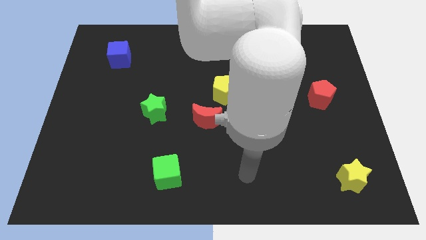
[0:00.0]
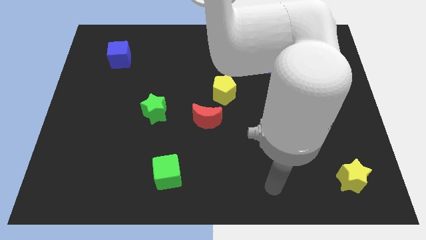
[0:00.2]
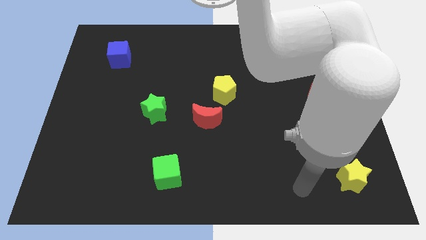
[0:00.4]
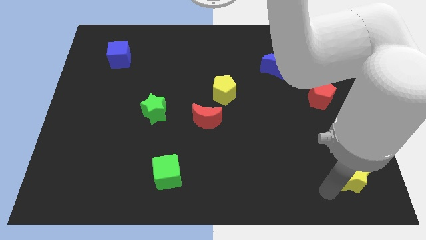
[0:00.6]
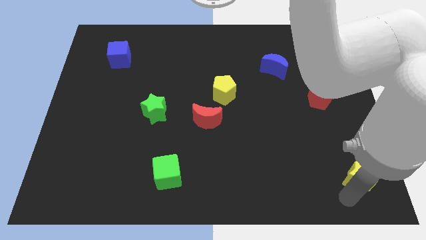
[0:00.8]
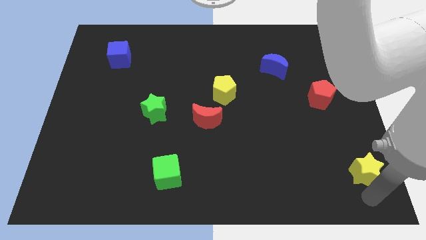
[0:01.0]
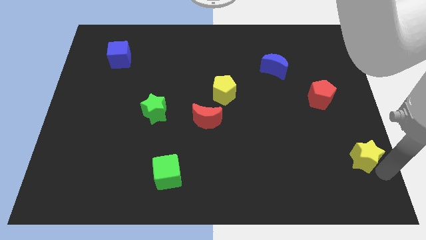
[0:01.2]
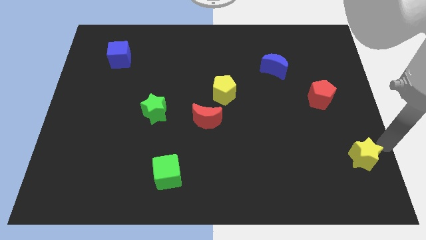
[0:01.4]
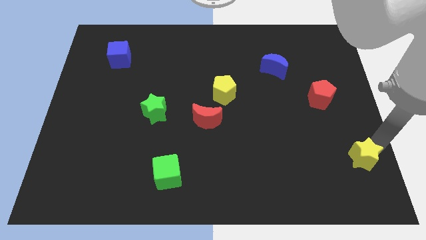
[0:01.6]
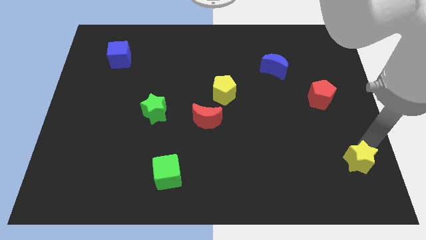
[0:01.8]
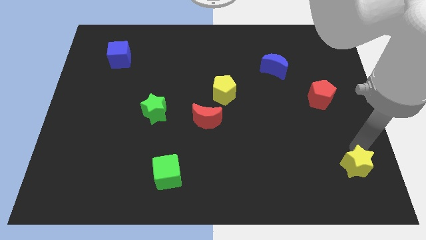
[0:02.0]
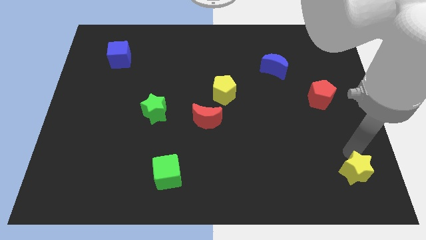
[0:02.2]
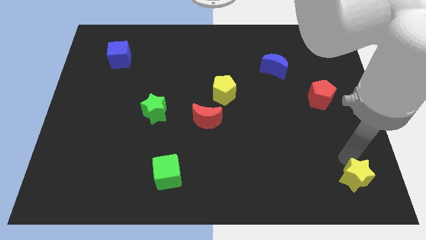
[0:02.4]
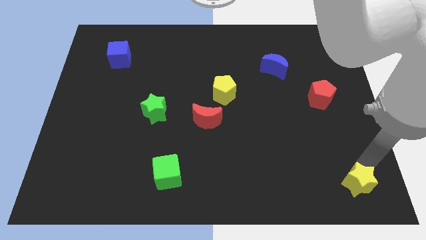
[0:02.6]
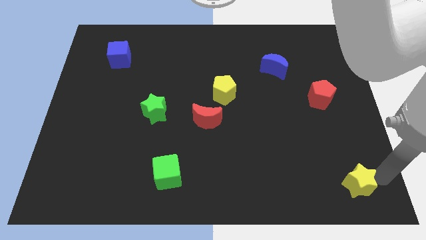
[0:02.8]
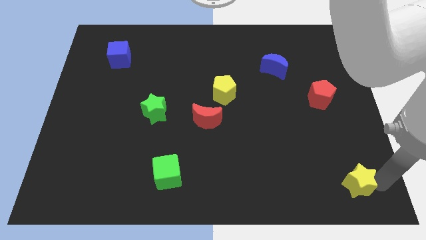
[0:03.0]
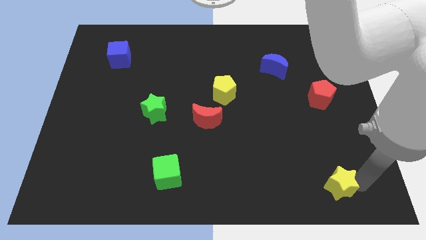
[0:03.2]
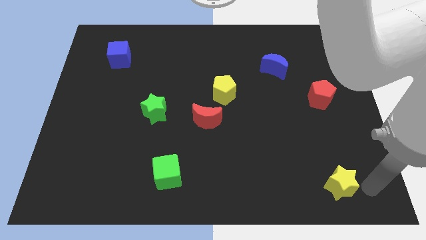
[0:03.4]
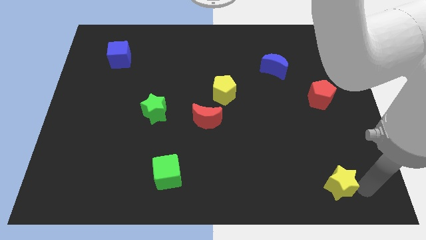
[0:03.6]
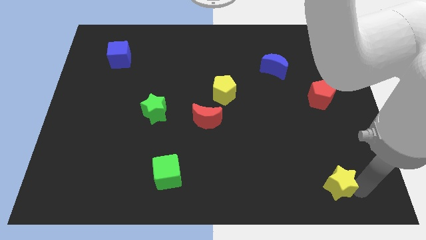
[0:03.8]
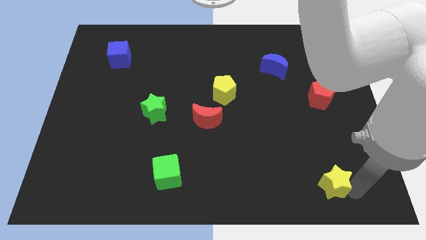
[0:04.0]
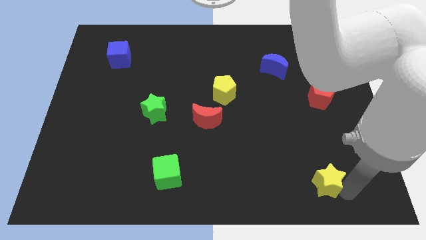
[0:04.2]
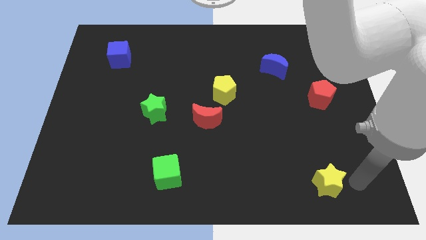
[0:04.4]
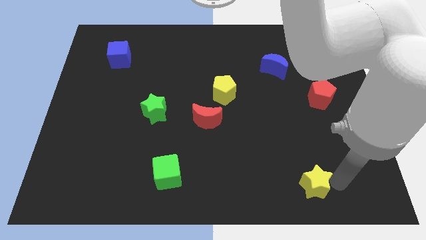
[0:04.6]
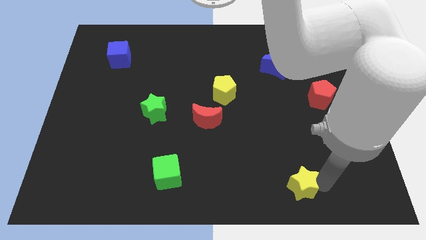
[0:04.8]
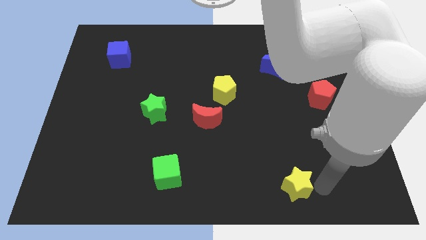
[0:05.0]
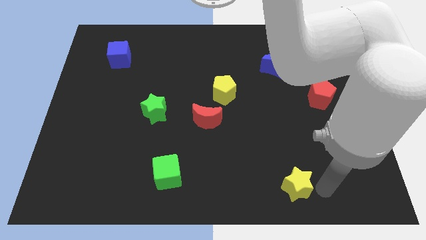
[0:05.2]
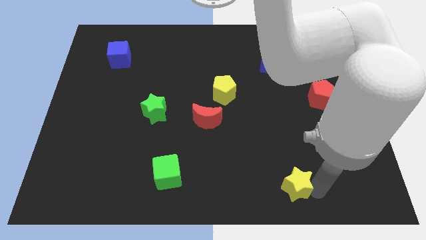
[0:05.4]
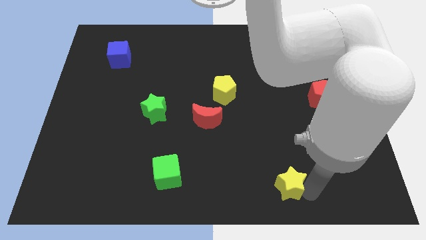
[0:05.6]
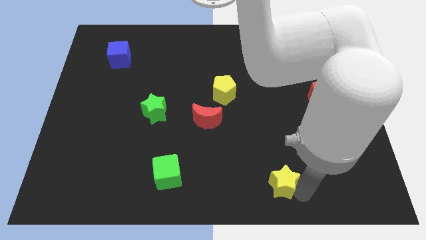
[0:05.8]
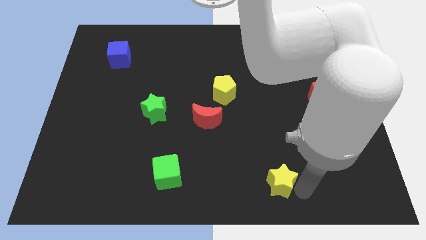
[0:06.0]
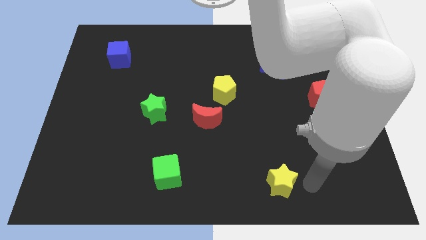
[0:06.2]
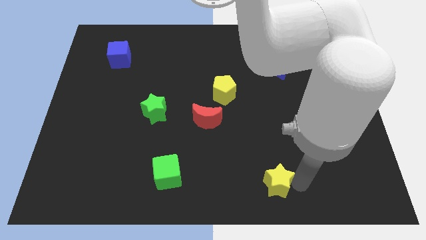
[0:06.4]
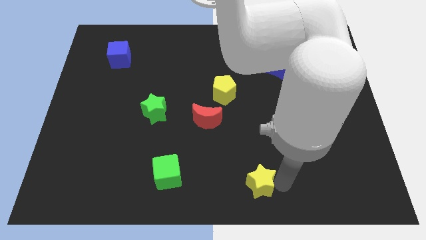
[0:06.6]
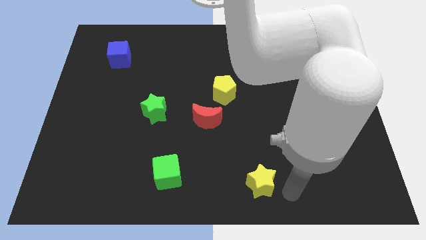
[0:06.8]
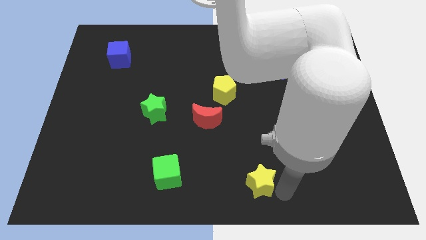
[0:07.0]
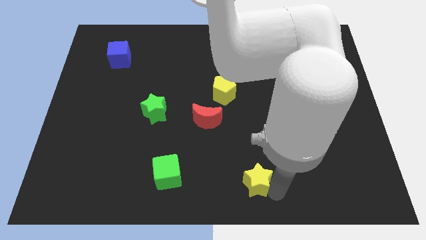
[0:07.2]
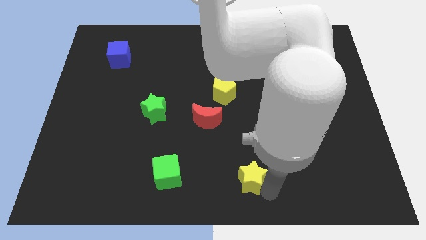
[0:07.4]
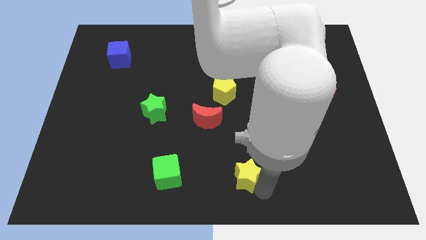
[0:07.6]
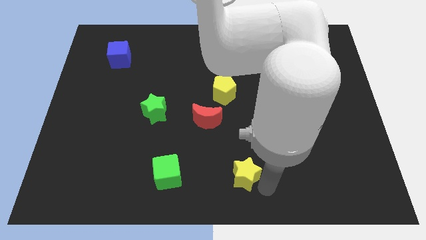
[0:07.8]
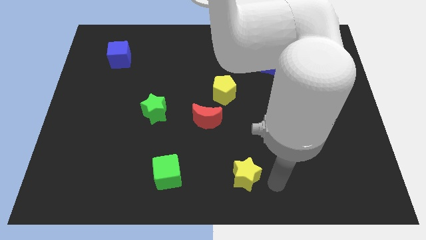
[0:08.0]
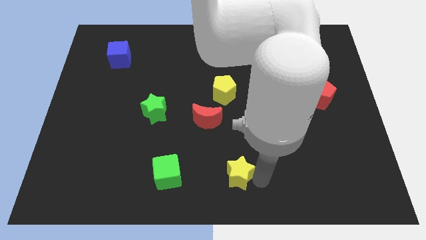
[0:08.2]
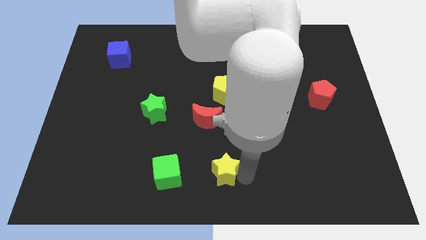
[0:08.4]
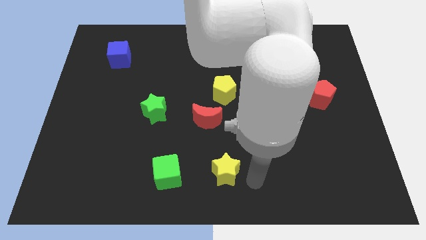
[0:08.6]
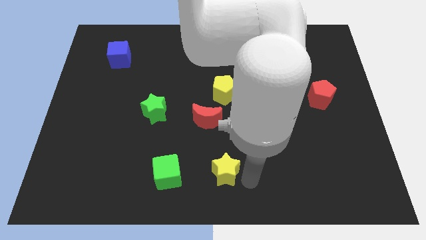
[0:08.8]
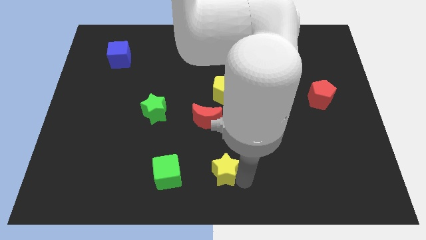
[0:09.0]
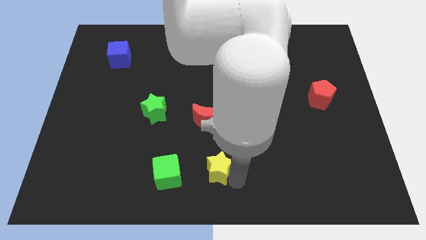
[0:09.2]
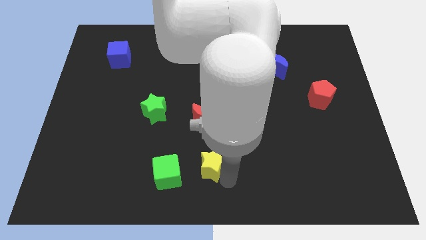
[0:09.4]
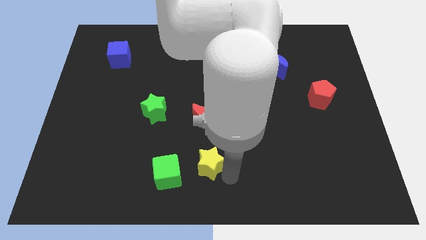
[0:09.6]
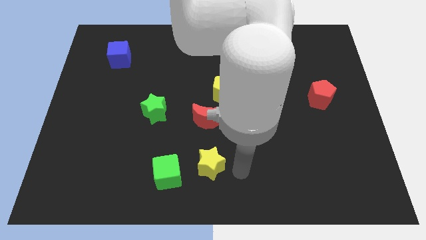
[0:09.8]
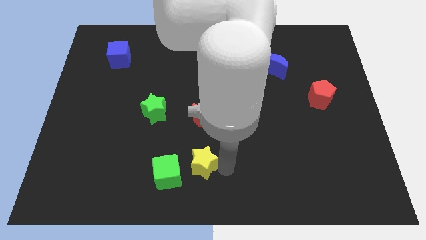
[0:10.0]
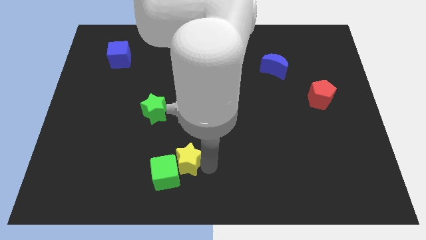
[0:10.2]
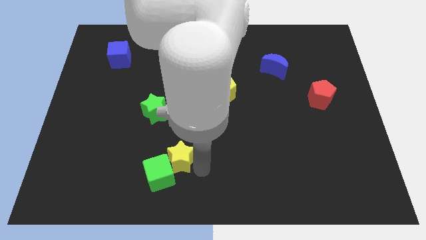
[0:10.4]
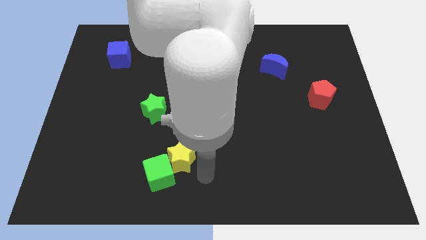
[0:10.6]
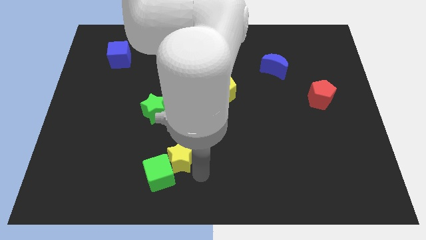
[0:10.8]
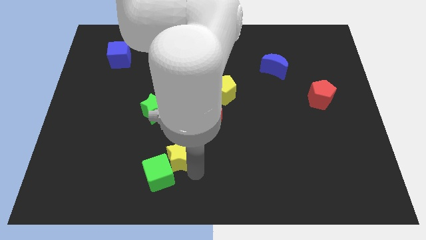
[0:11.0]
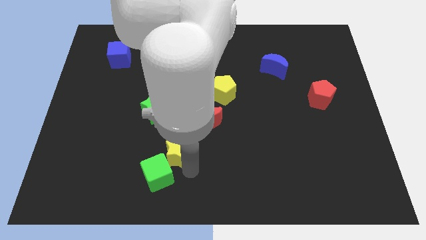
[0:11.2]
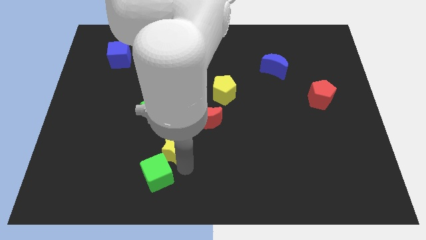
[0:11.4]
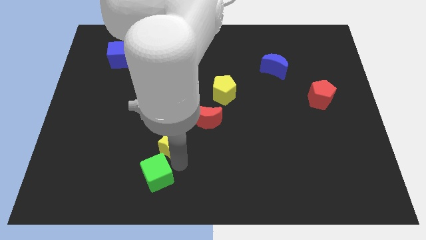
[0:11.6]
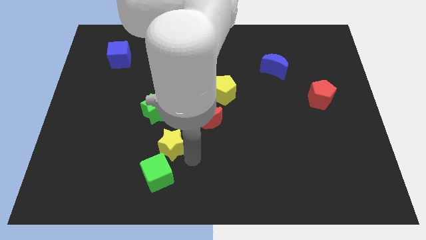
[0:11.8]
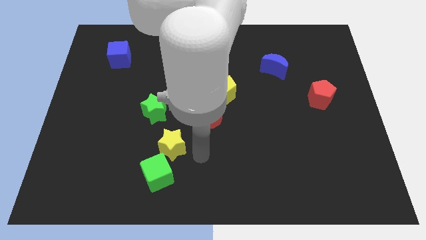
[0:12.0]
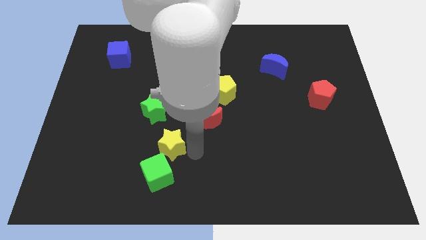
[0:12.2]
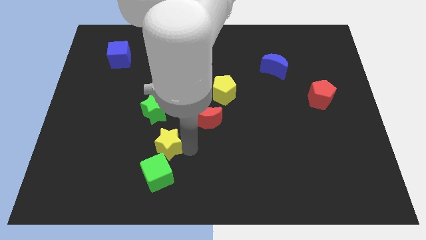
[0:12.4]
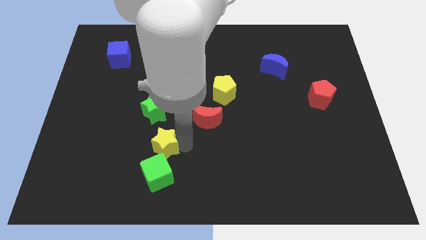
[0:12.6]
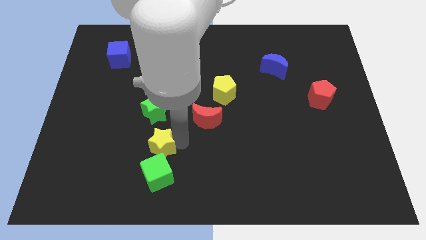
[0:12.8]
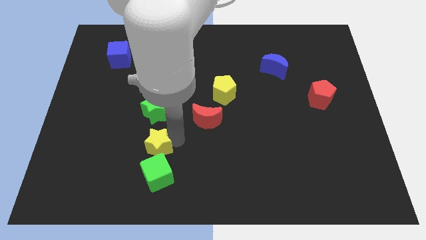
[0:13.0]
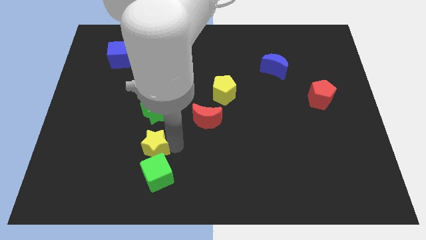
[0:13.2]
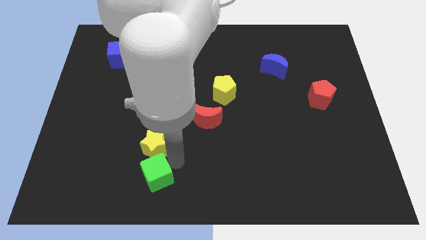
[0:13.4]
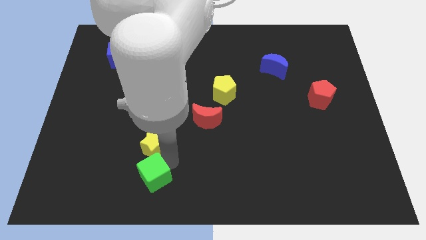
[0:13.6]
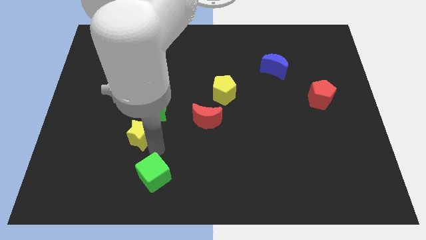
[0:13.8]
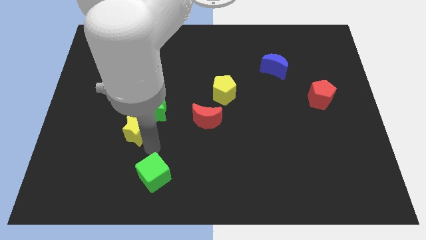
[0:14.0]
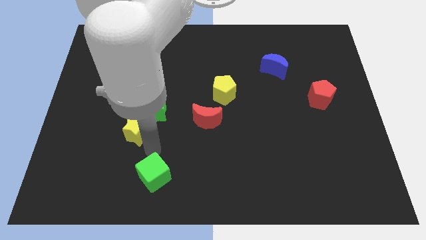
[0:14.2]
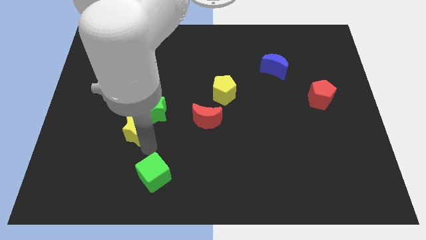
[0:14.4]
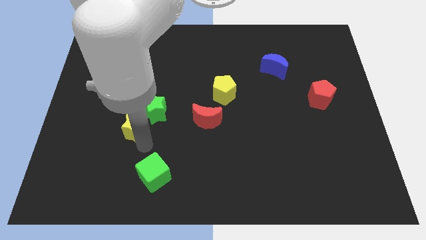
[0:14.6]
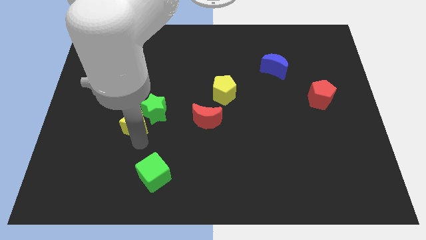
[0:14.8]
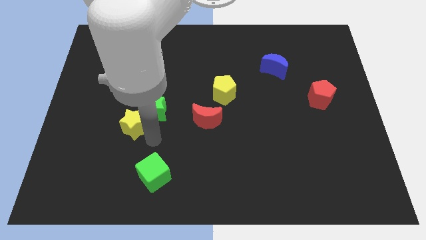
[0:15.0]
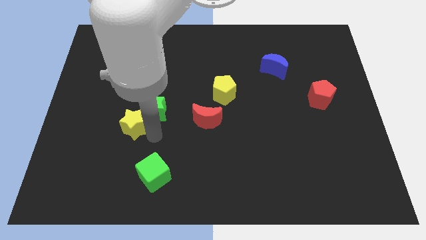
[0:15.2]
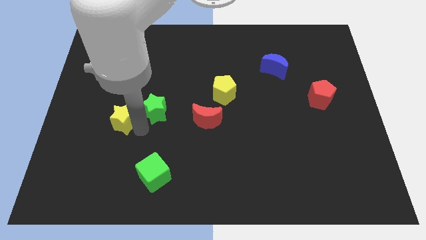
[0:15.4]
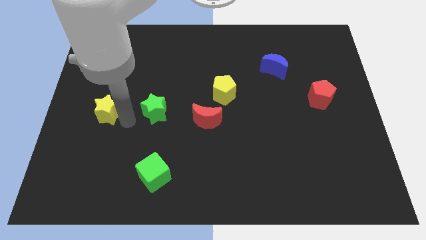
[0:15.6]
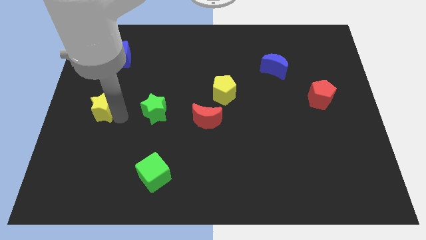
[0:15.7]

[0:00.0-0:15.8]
slide the yellow star to the left side of the board
